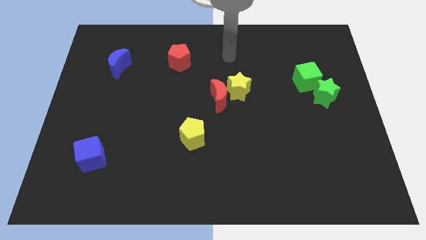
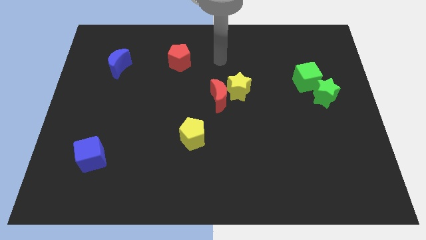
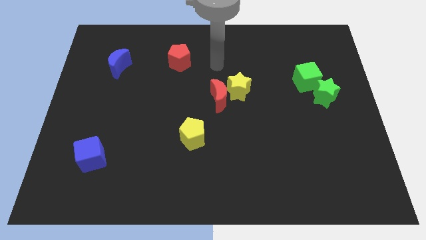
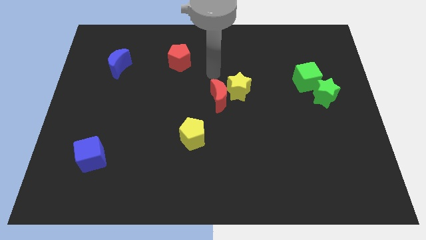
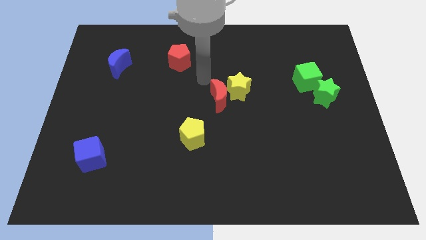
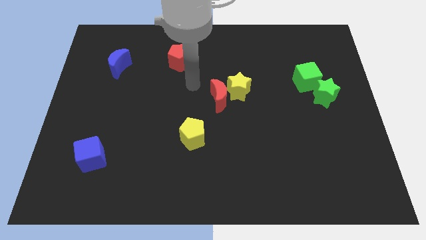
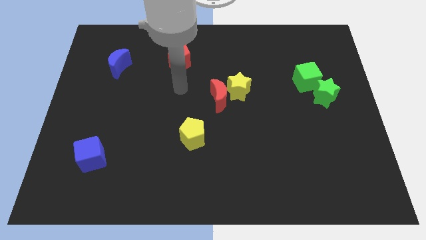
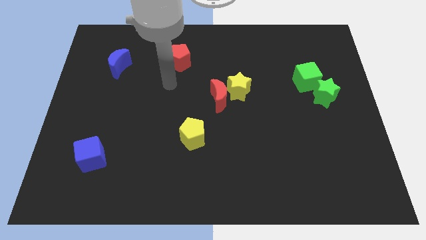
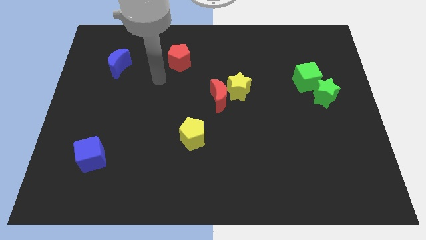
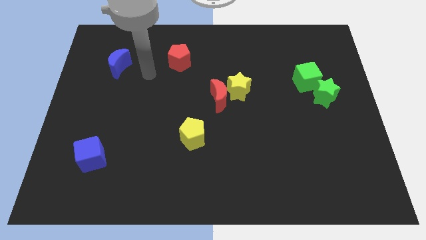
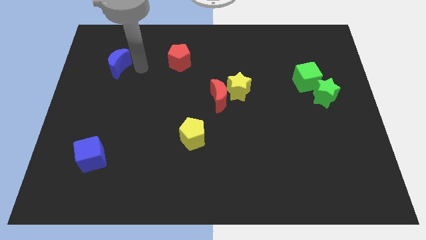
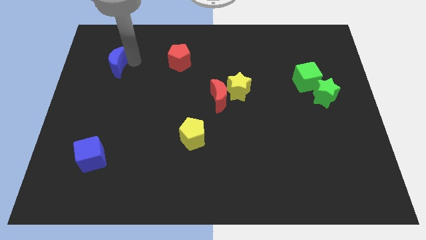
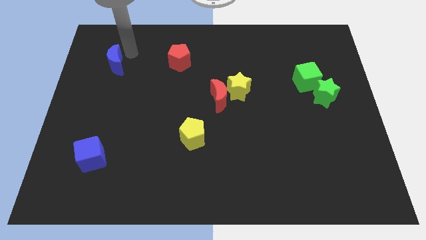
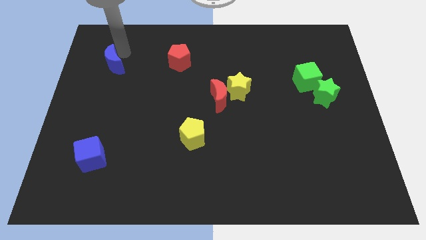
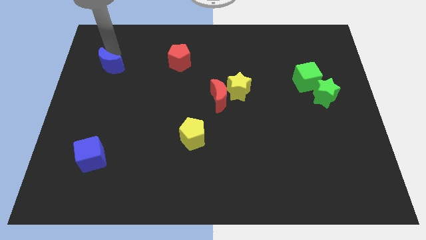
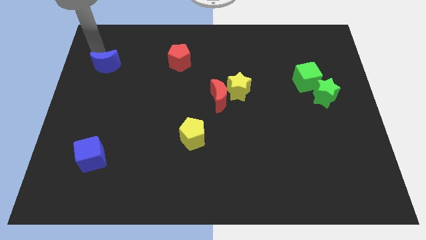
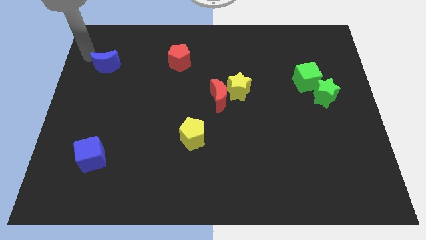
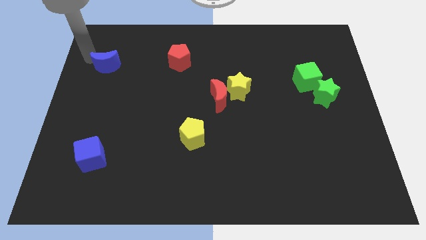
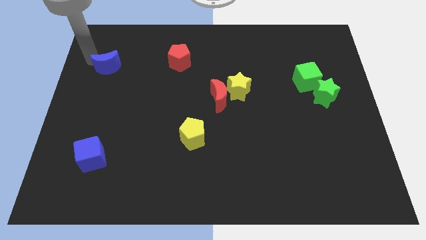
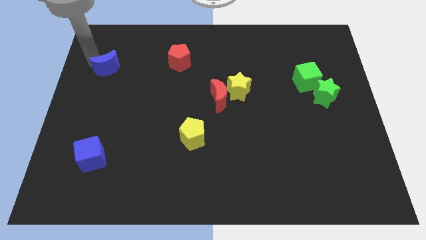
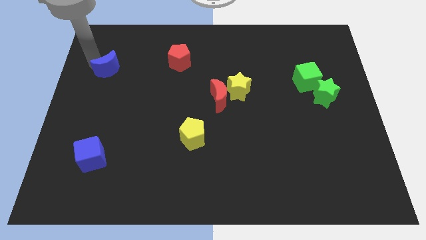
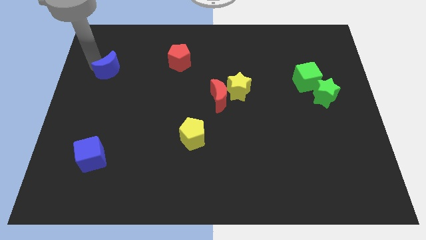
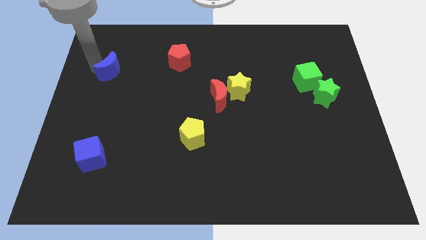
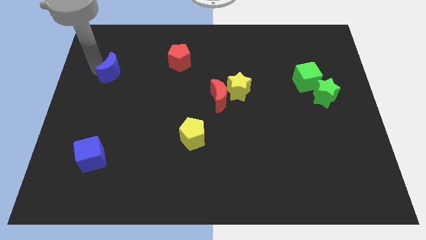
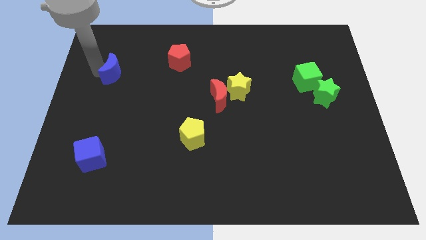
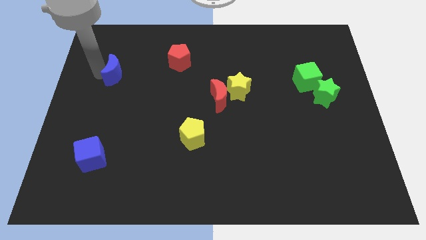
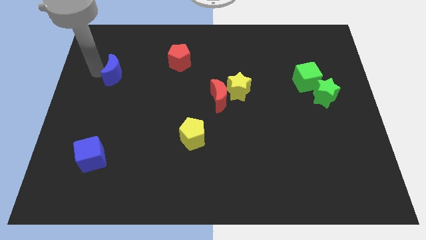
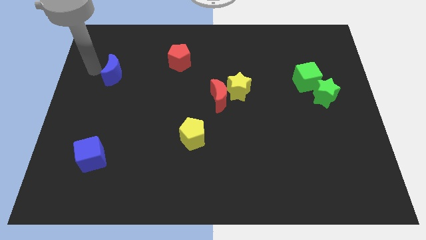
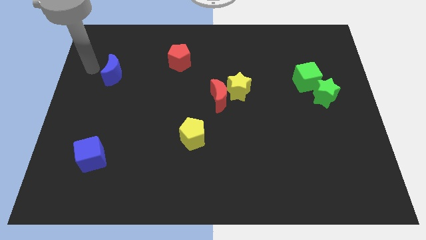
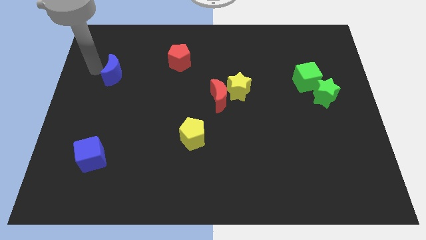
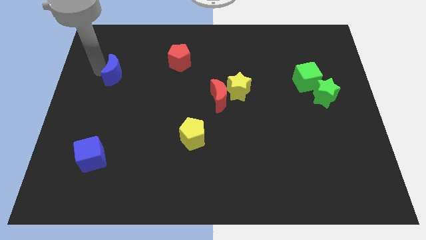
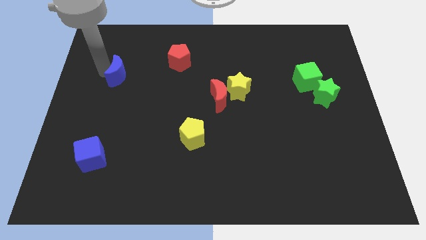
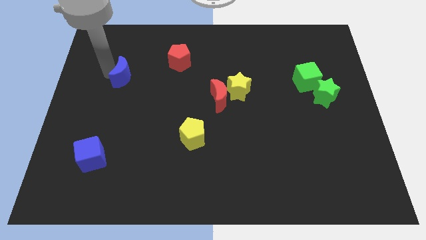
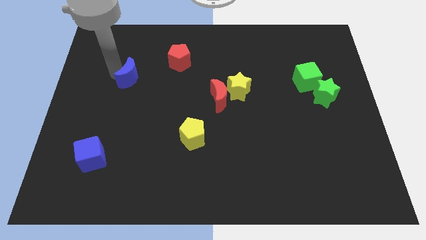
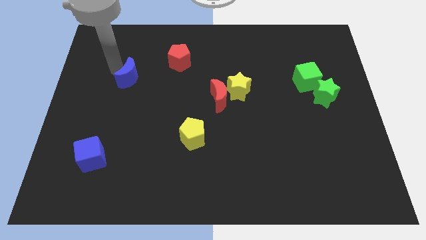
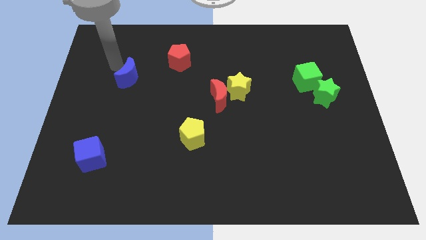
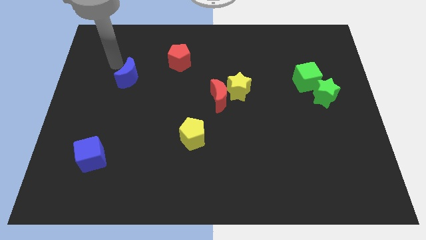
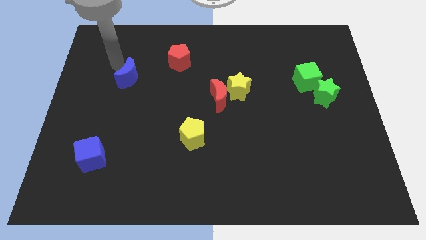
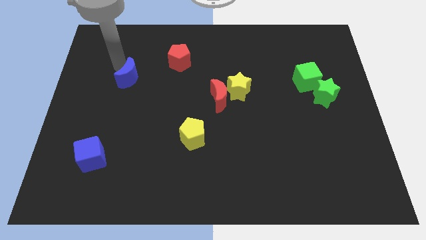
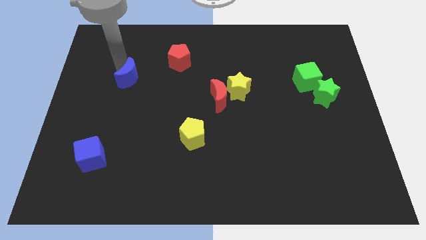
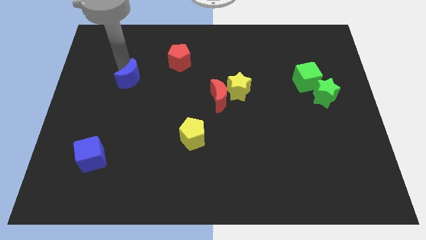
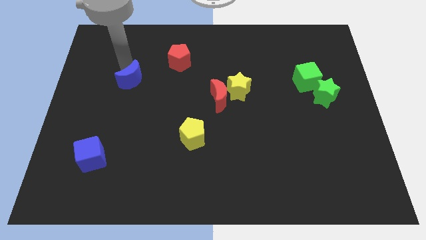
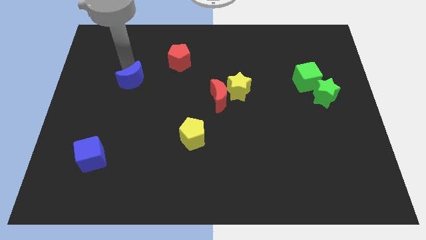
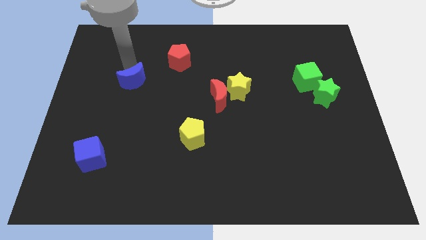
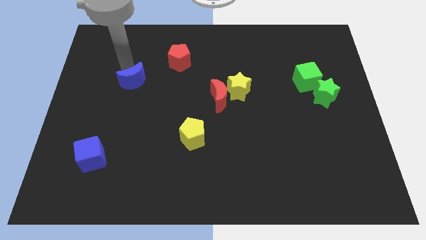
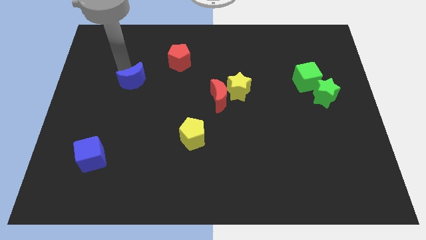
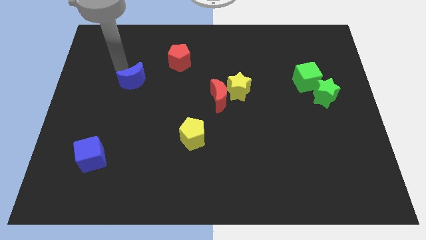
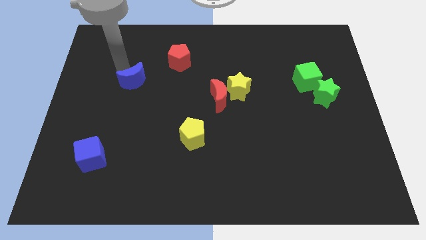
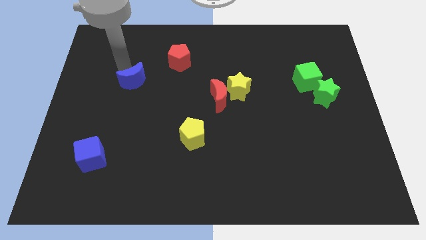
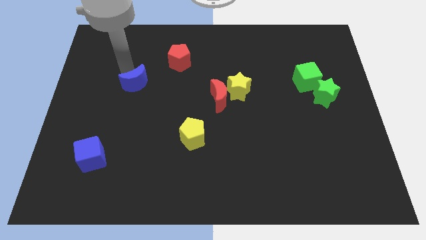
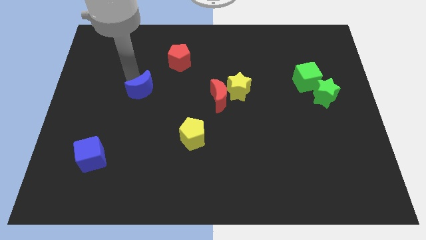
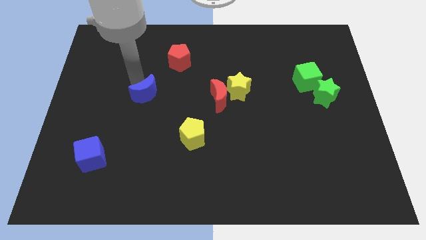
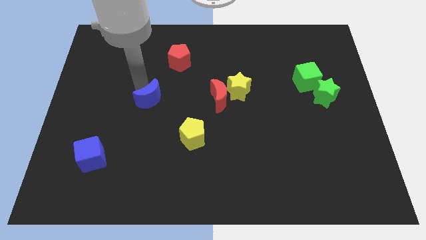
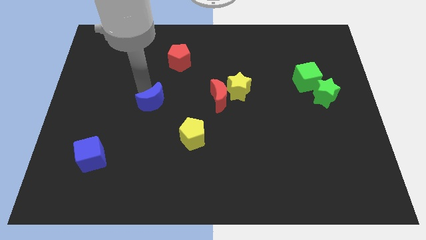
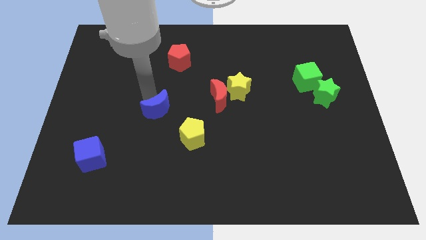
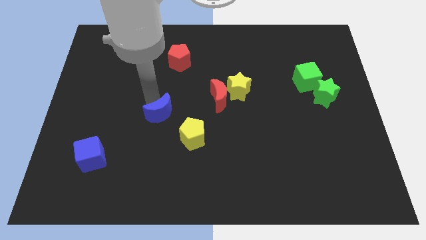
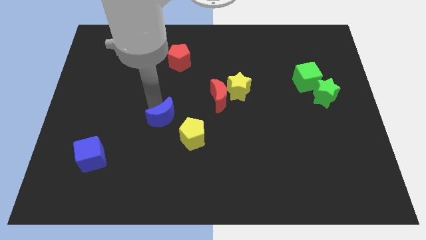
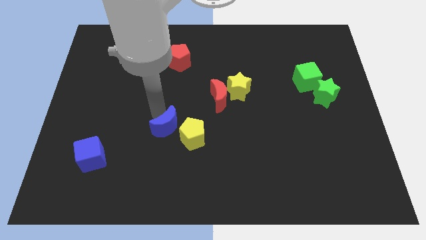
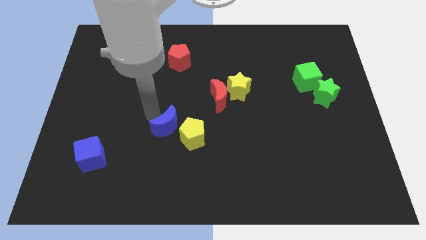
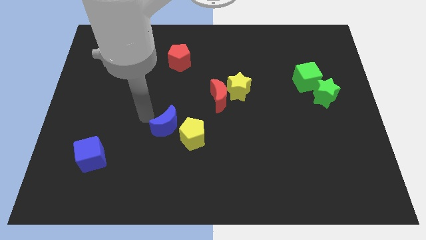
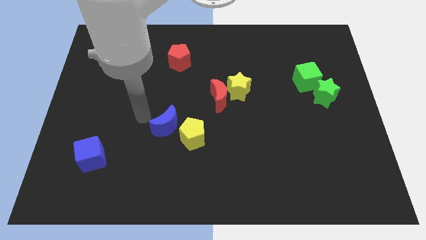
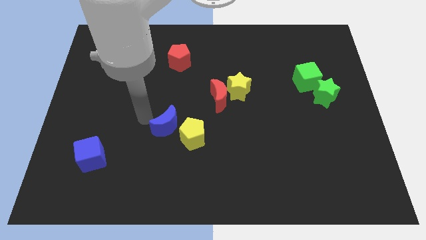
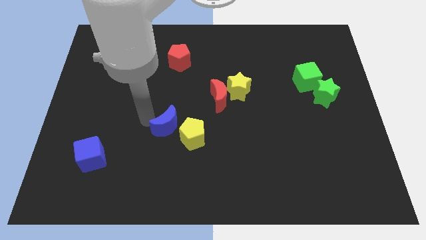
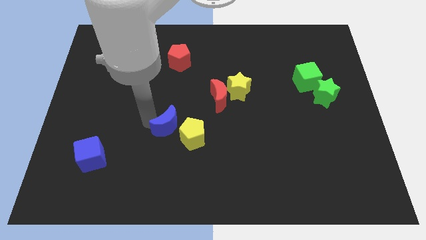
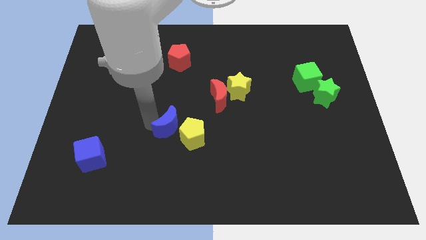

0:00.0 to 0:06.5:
slide the blue moon next to the yellow pentagon

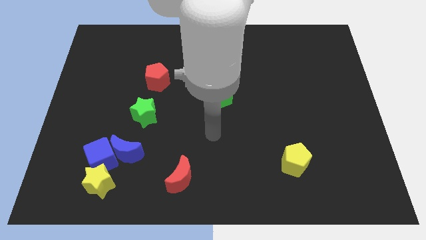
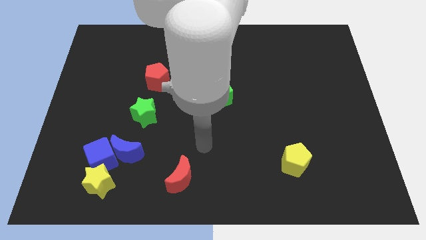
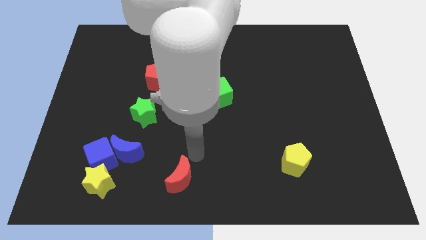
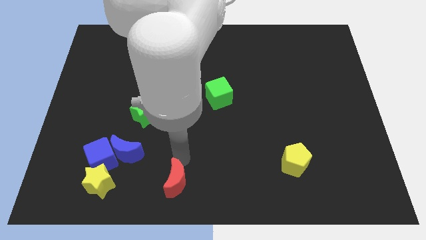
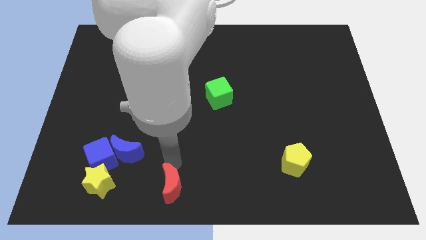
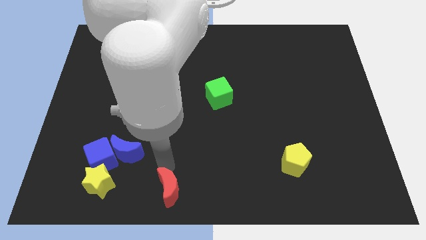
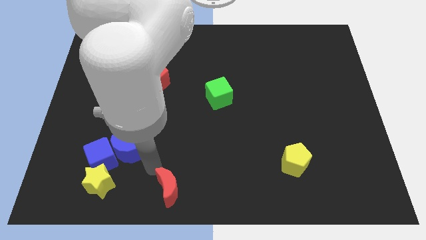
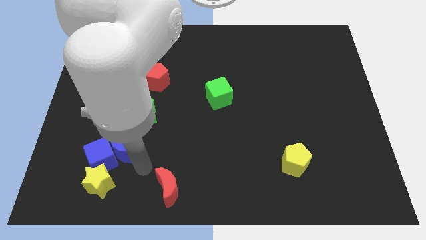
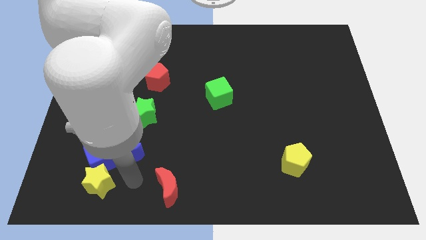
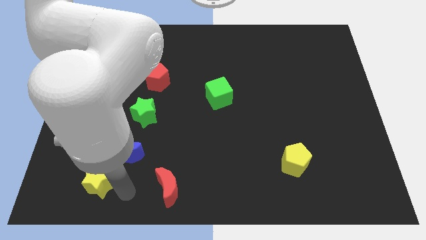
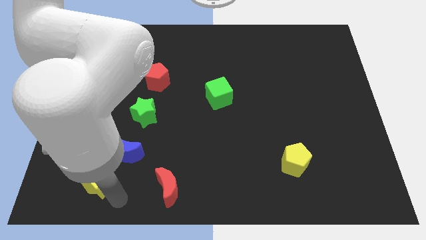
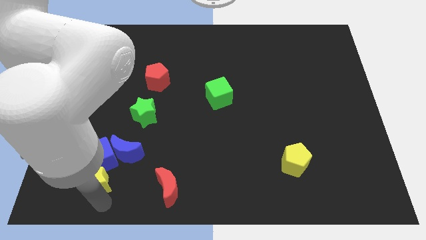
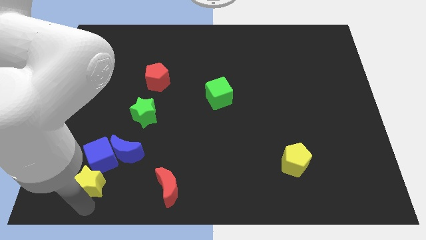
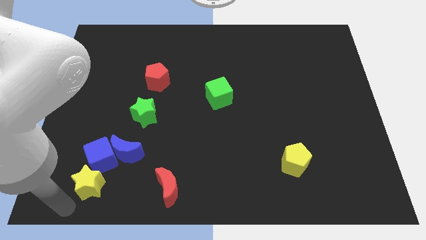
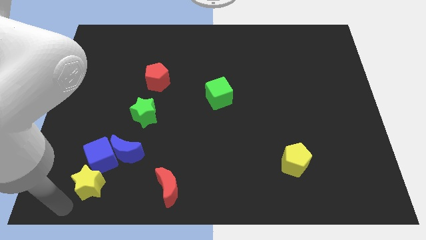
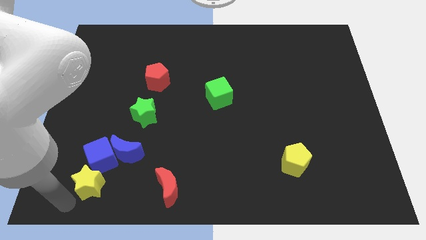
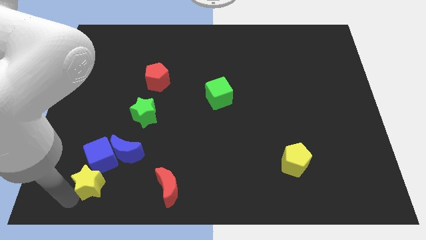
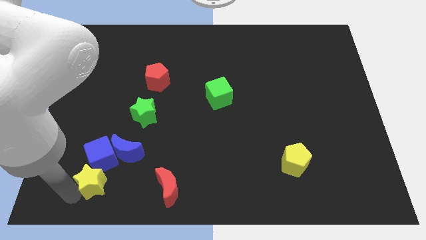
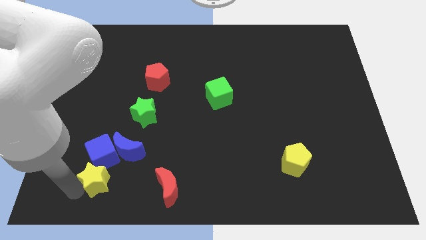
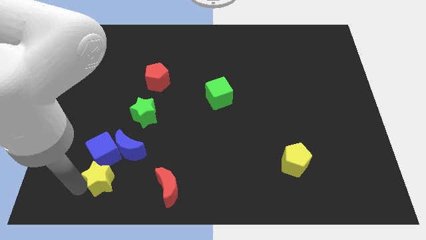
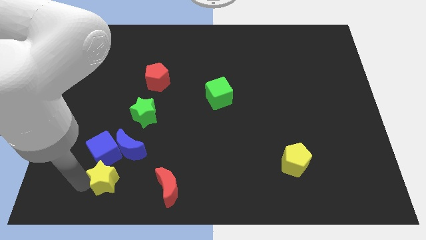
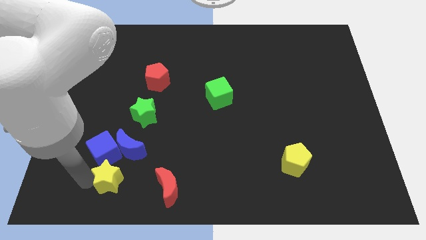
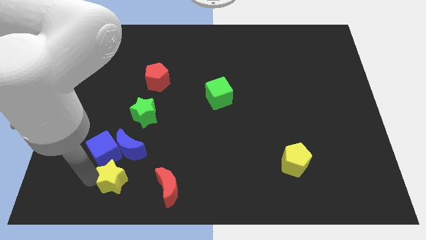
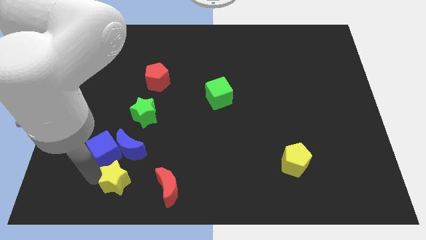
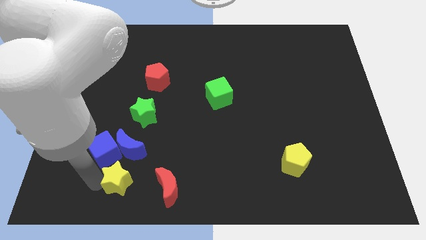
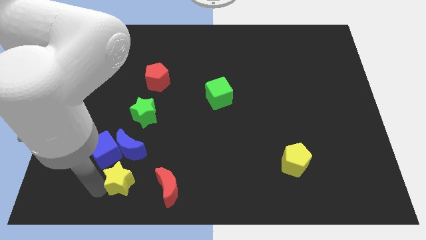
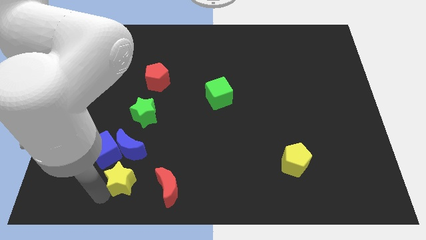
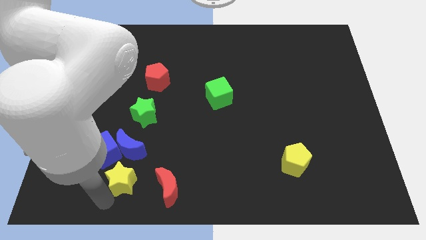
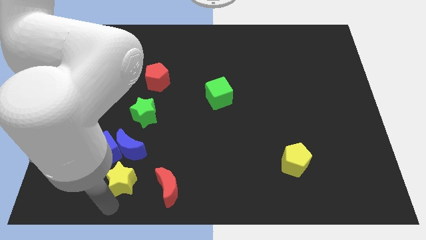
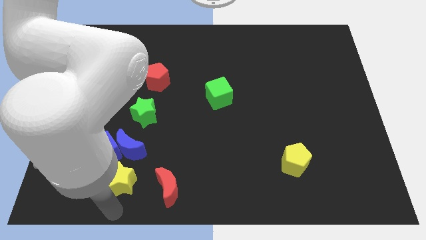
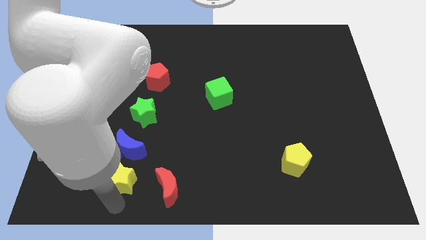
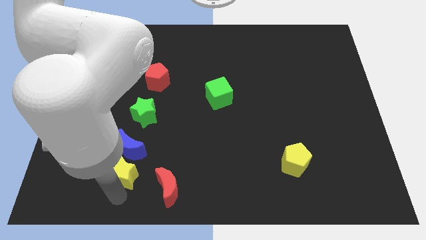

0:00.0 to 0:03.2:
put the yellow star towards the blue moon
